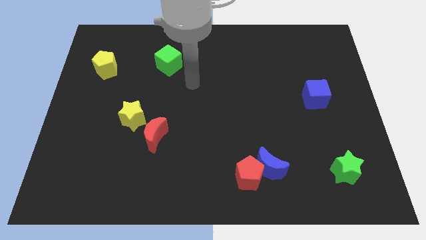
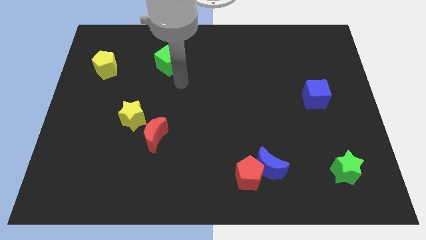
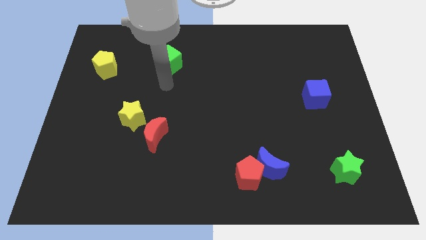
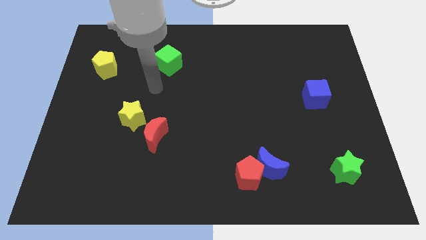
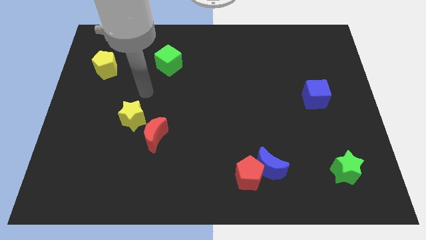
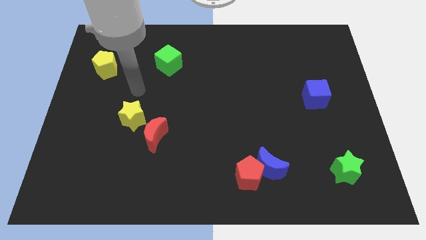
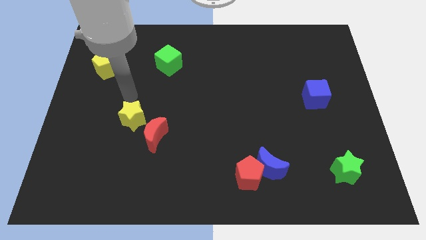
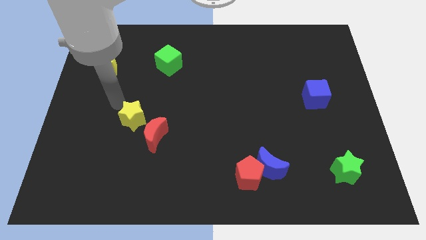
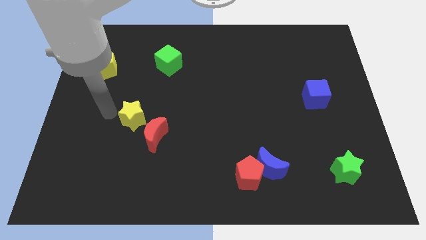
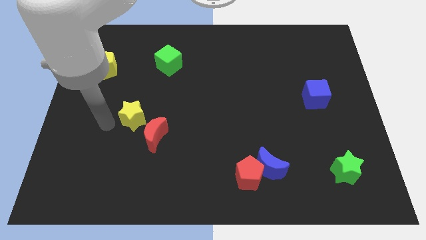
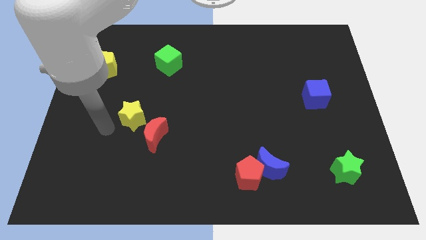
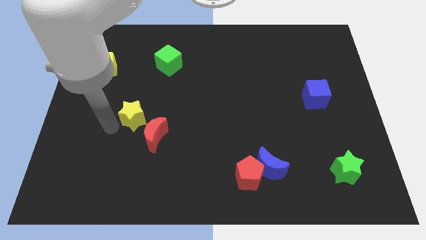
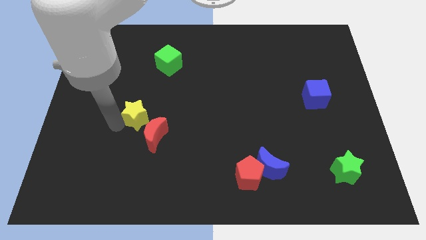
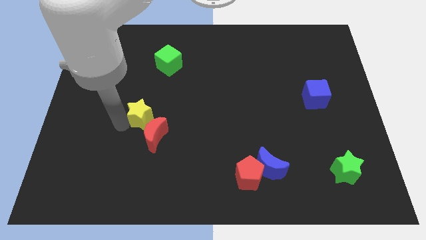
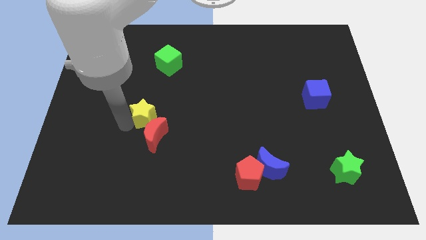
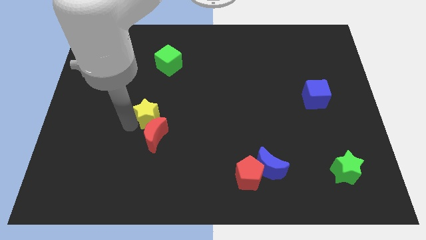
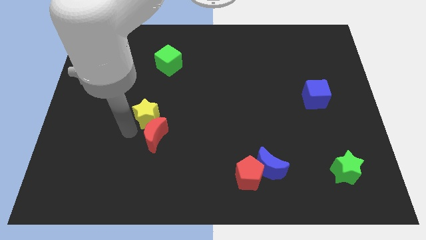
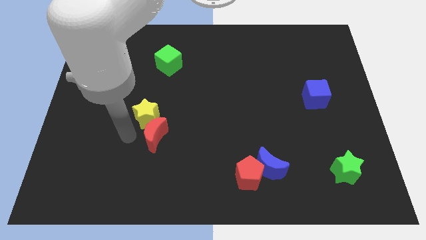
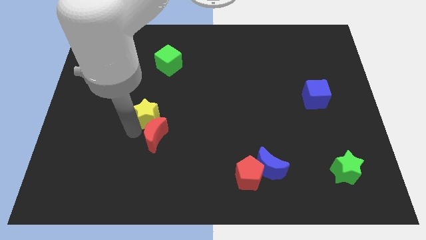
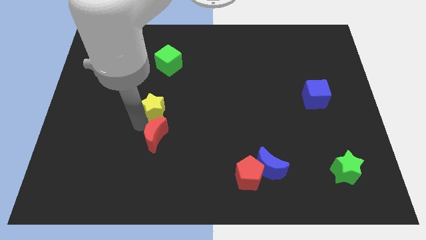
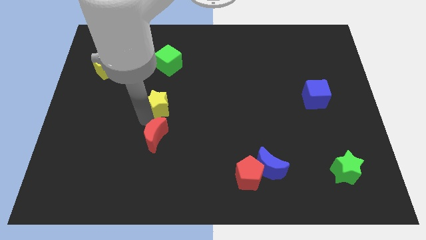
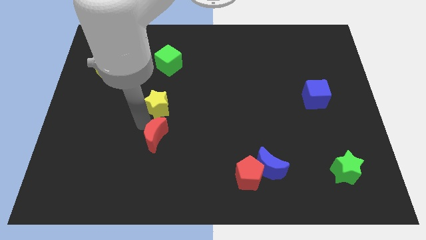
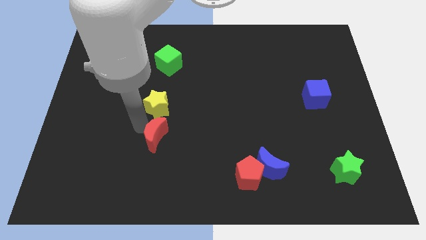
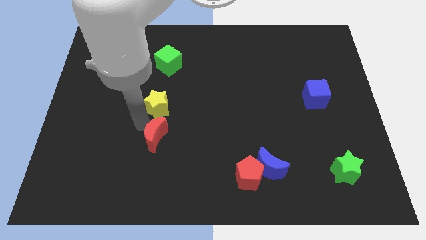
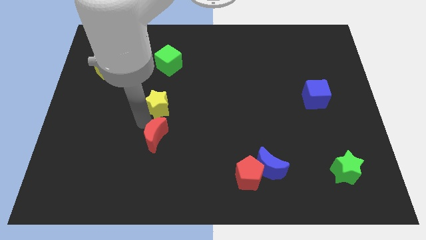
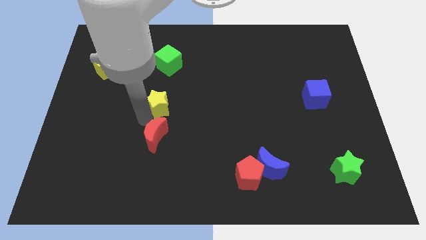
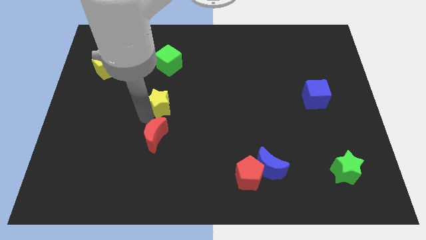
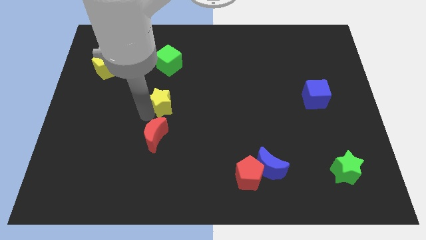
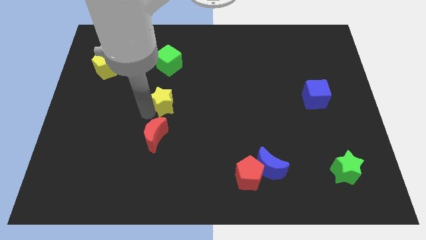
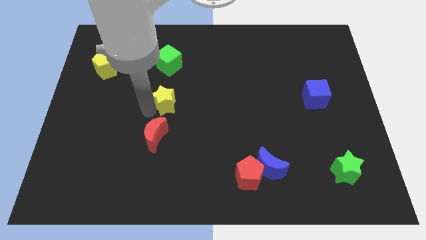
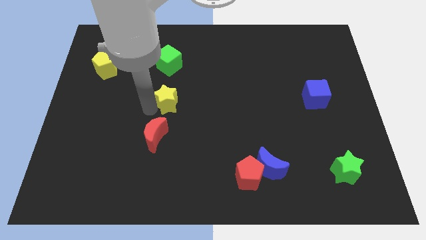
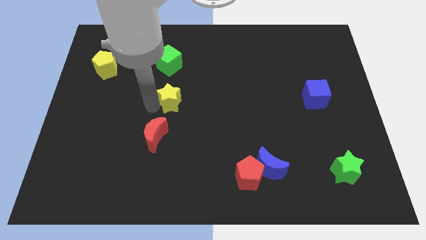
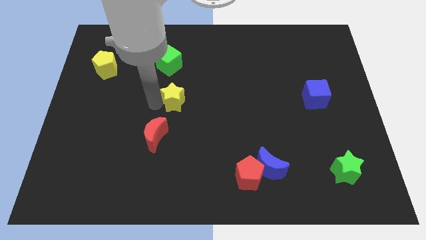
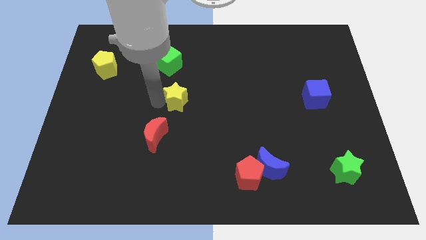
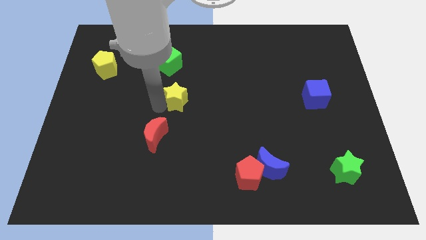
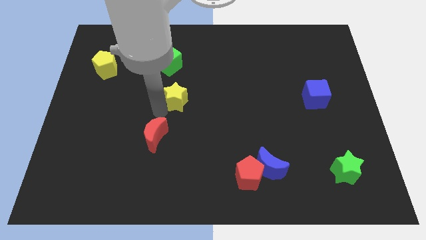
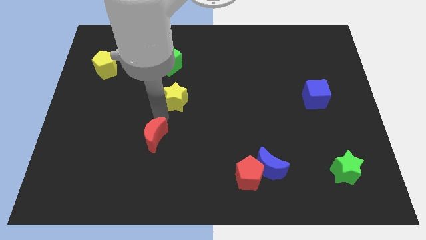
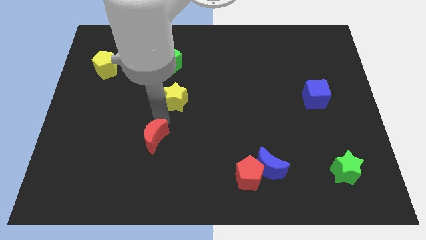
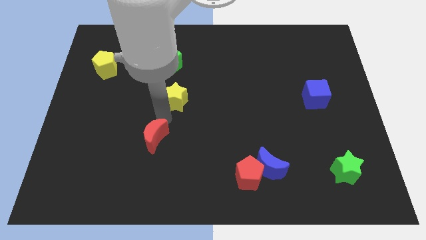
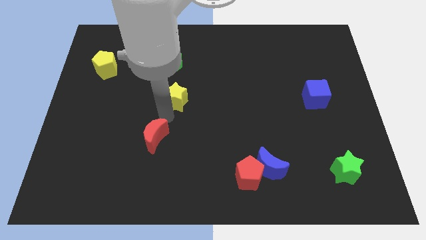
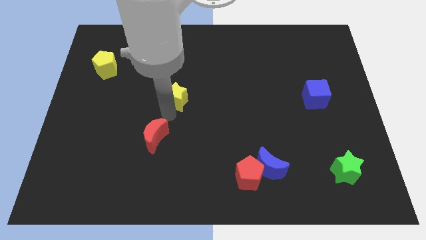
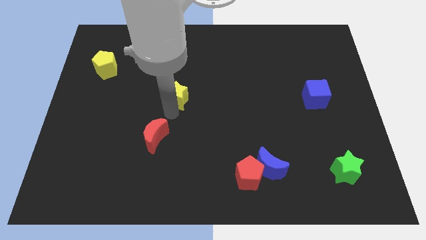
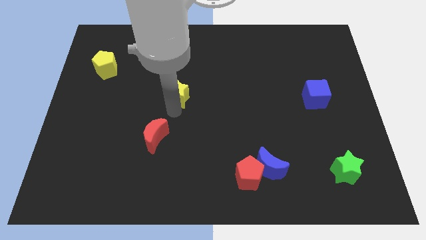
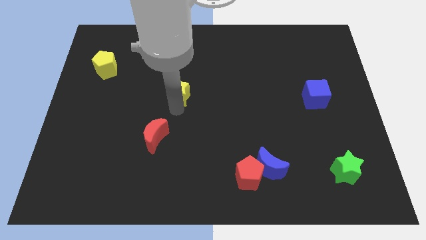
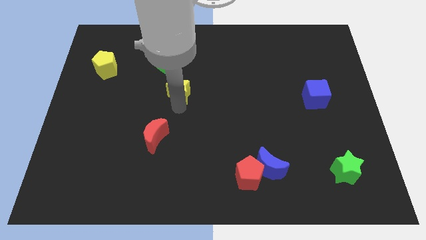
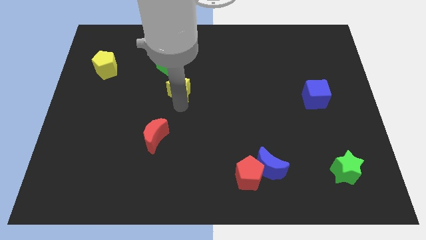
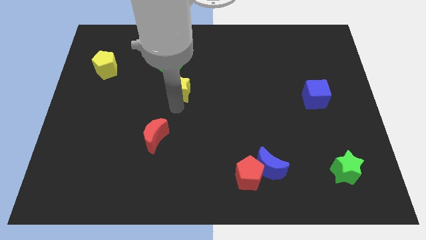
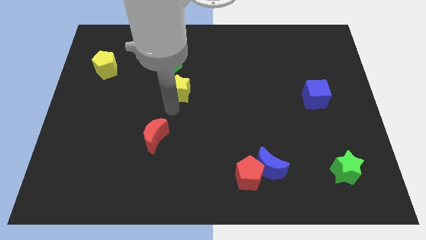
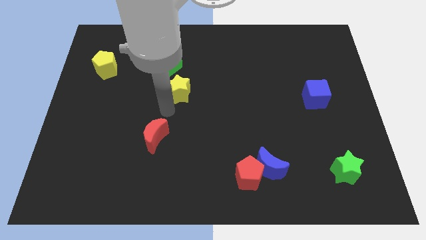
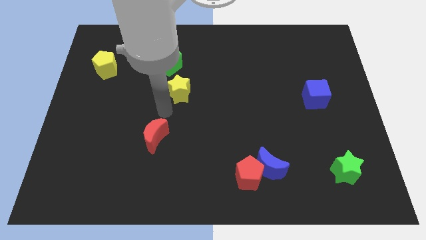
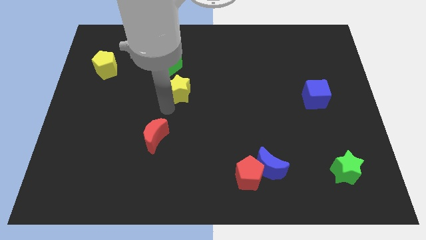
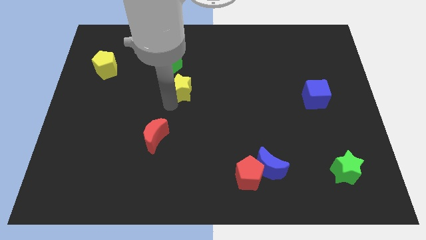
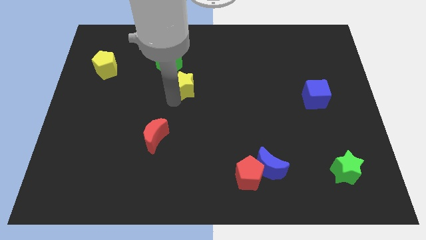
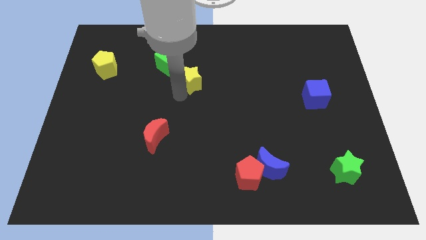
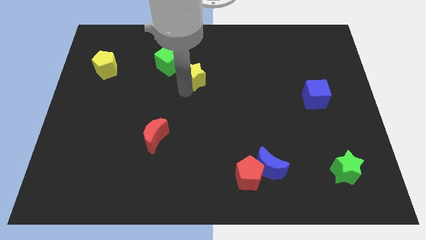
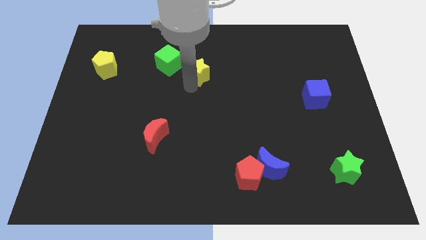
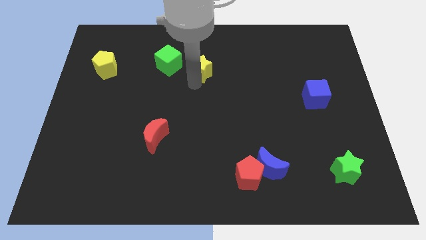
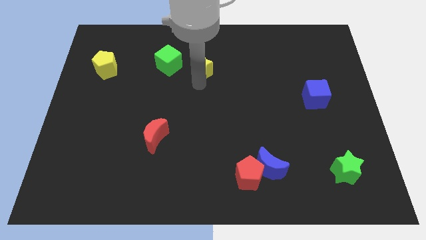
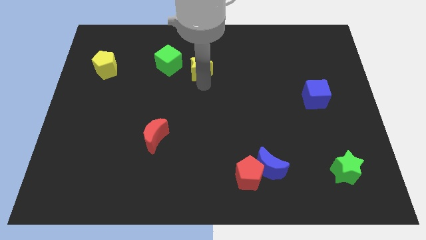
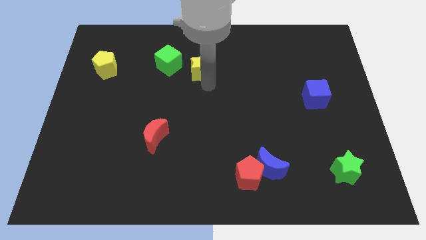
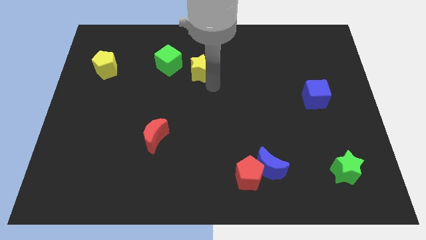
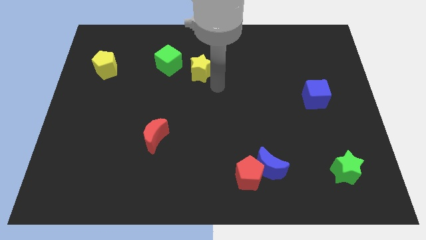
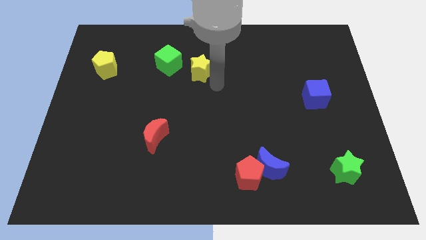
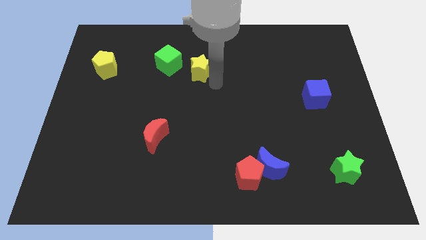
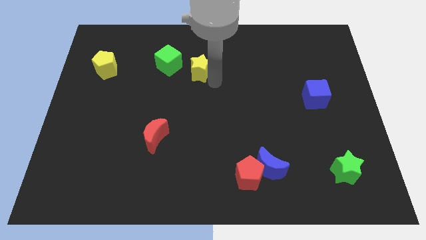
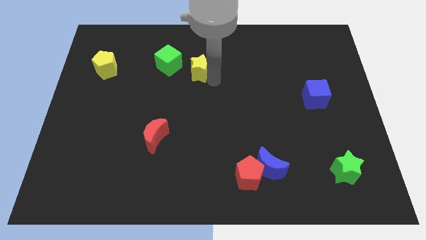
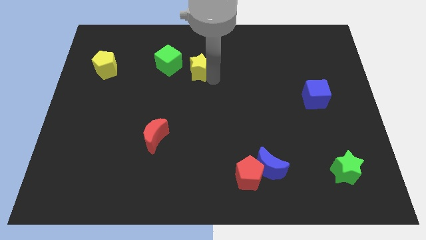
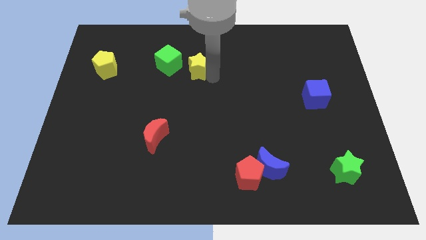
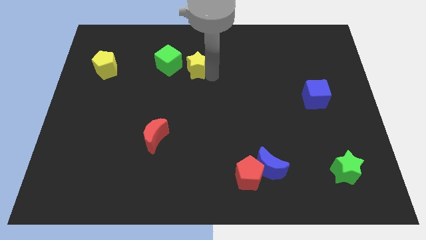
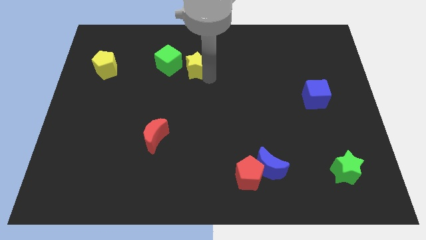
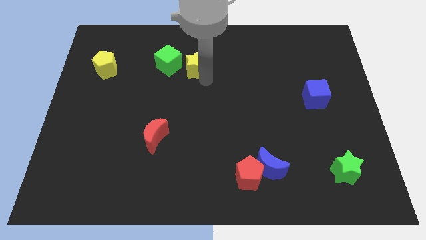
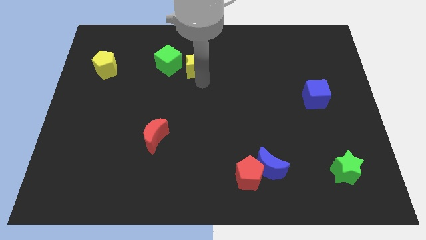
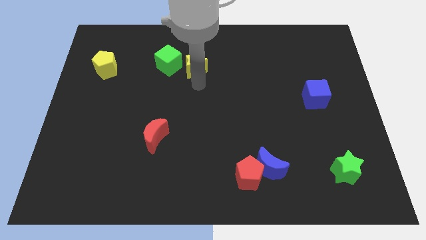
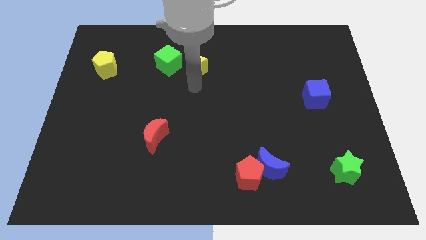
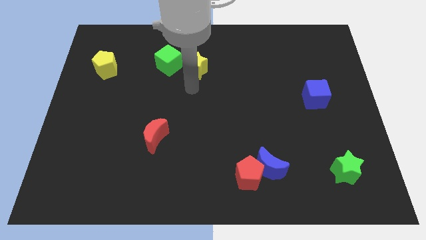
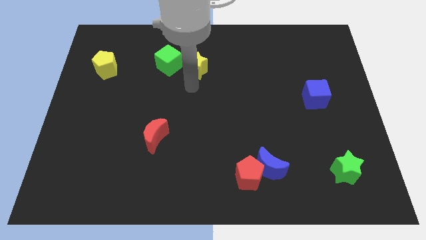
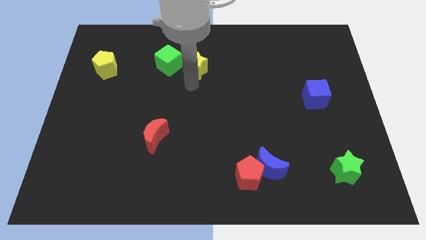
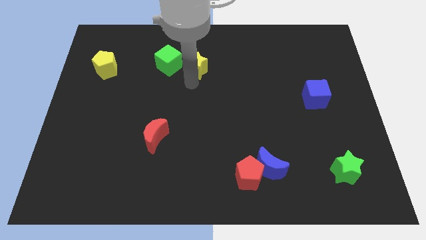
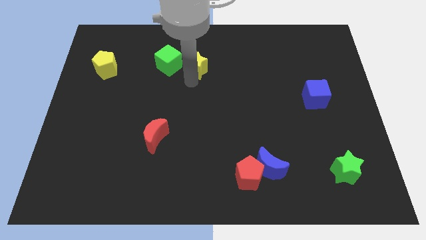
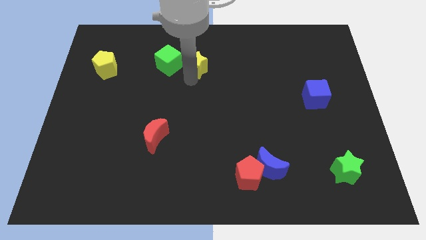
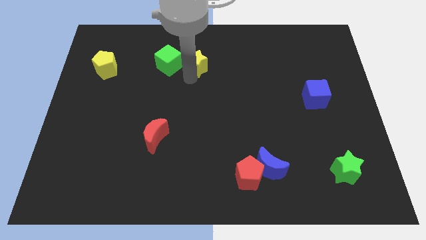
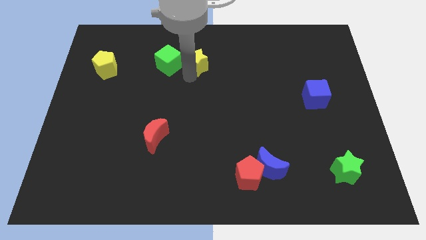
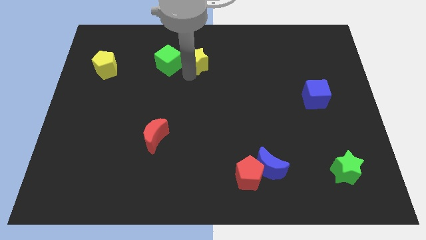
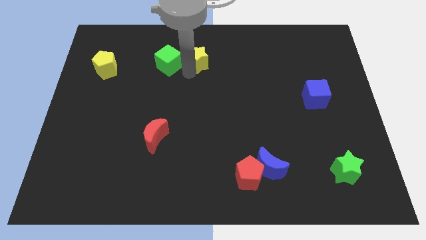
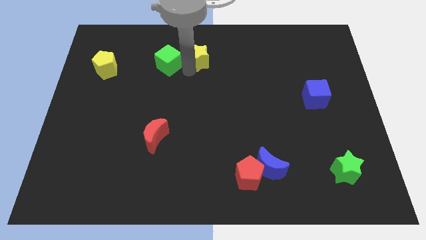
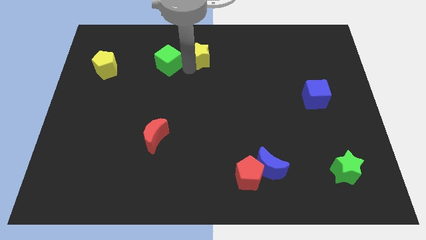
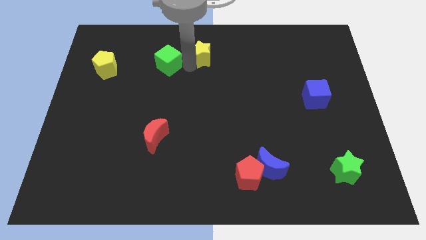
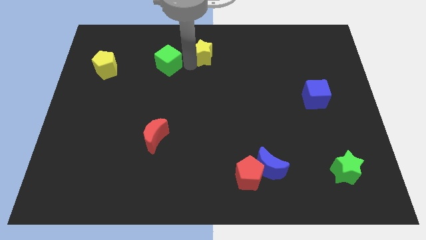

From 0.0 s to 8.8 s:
push the yellow star to the towards your base
